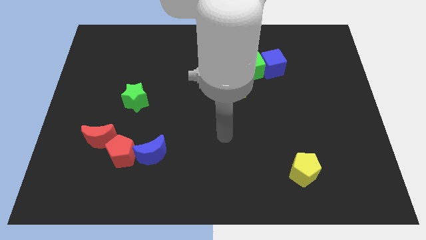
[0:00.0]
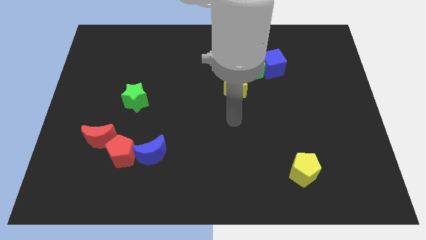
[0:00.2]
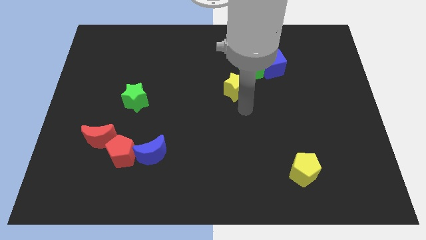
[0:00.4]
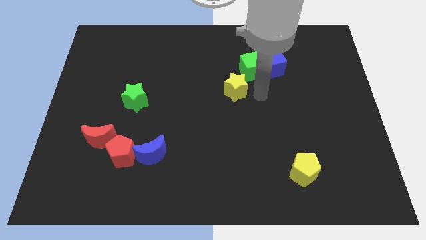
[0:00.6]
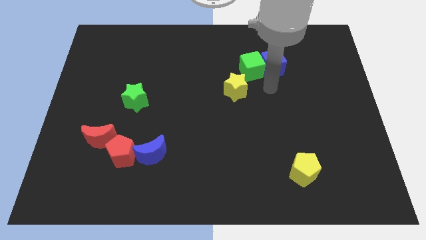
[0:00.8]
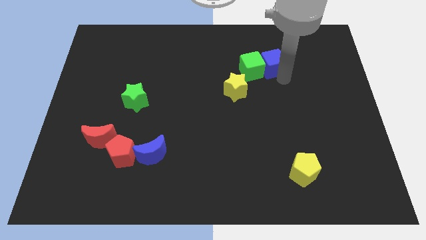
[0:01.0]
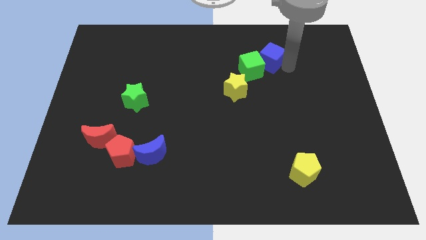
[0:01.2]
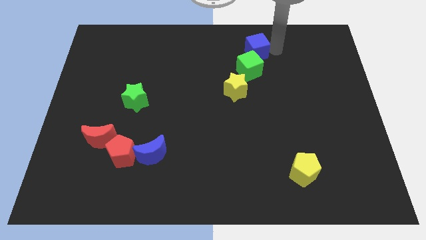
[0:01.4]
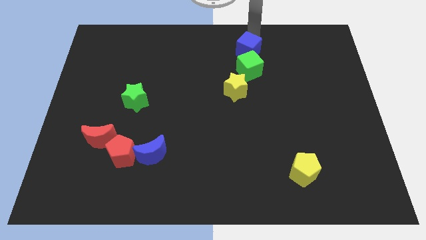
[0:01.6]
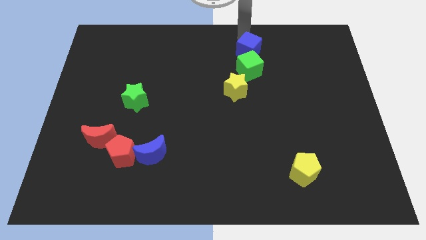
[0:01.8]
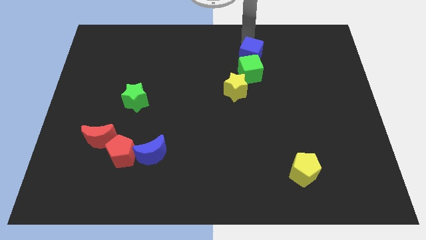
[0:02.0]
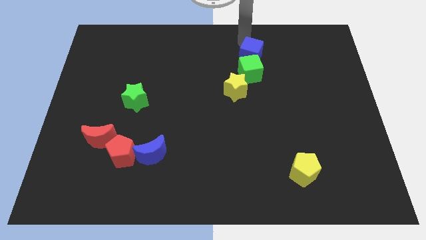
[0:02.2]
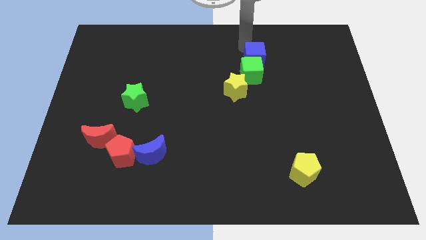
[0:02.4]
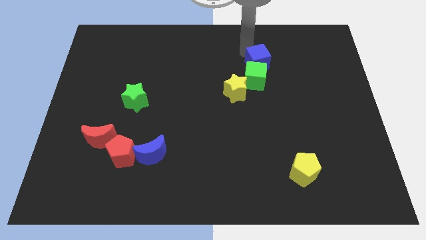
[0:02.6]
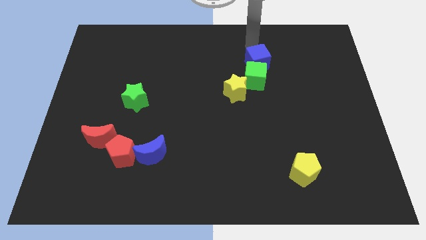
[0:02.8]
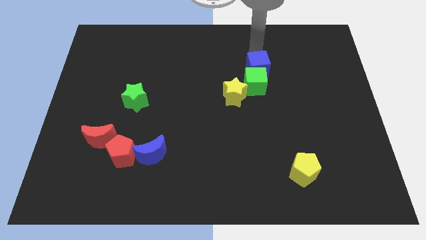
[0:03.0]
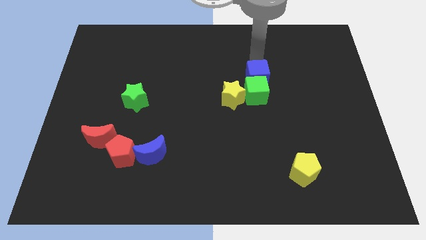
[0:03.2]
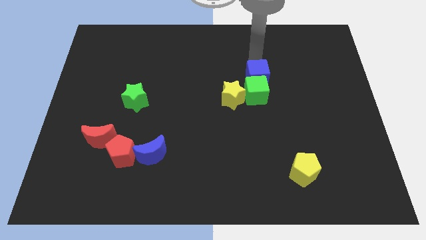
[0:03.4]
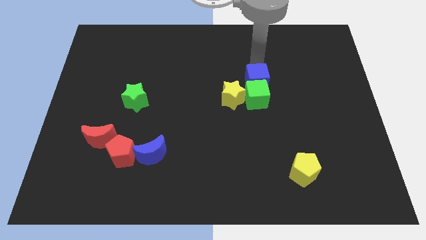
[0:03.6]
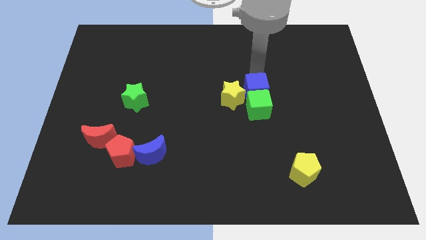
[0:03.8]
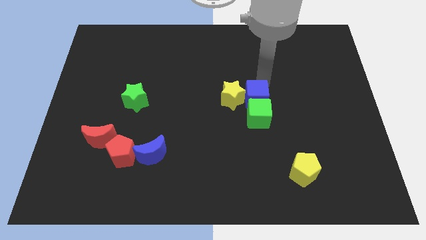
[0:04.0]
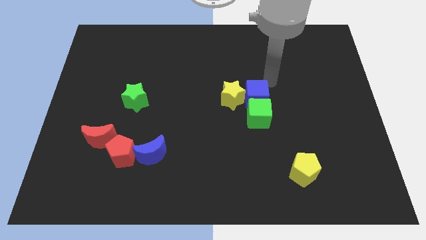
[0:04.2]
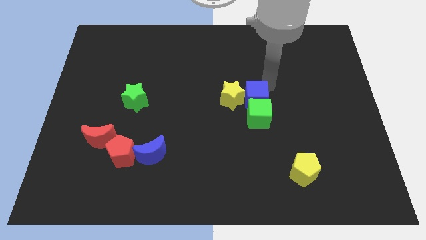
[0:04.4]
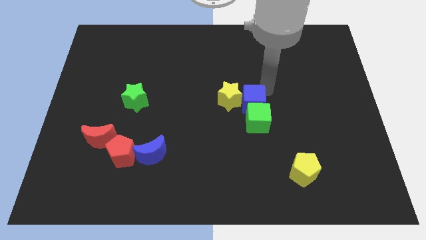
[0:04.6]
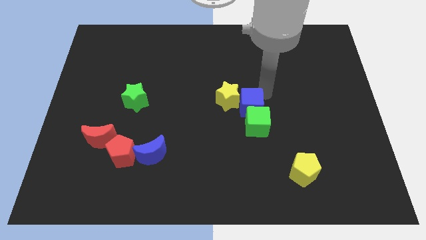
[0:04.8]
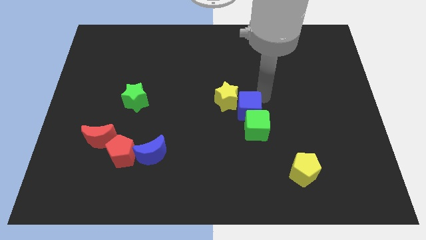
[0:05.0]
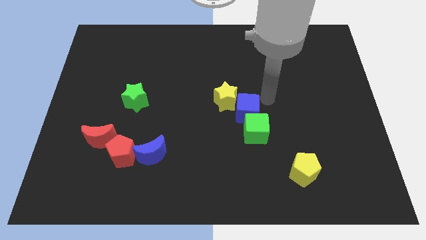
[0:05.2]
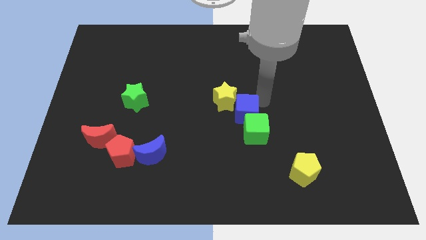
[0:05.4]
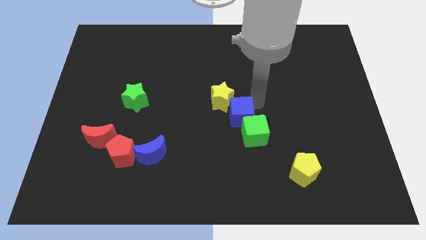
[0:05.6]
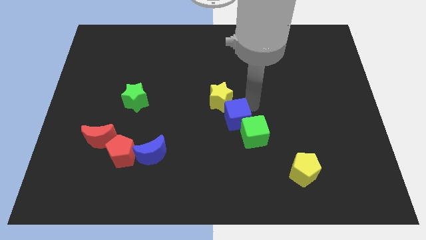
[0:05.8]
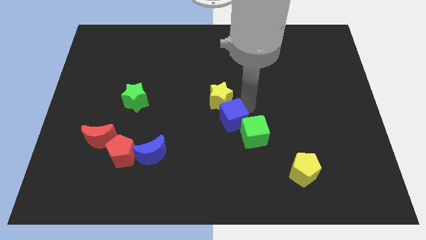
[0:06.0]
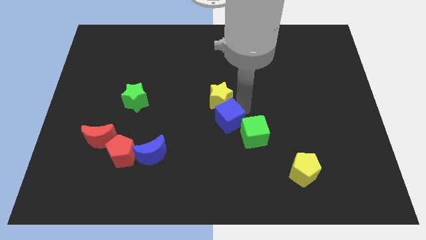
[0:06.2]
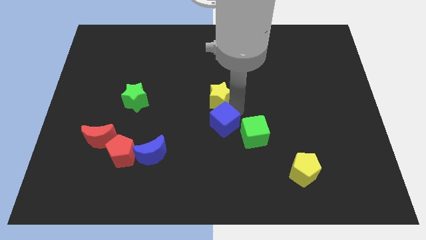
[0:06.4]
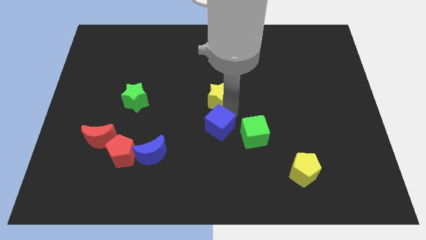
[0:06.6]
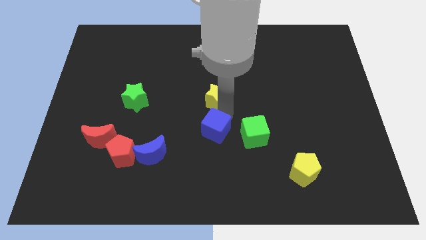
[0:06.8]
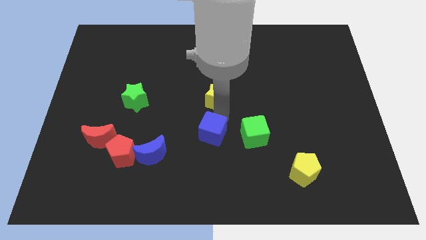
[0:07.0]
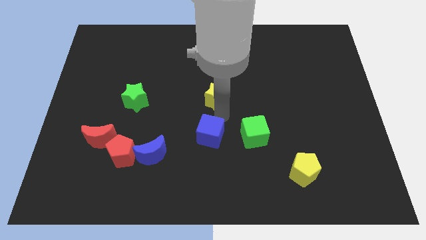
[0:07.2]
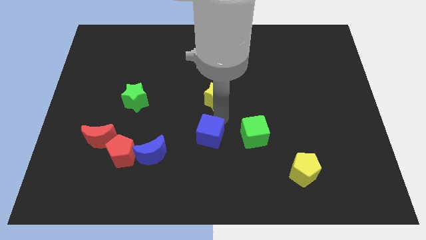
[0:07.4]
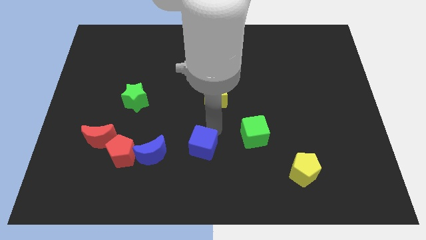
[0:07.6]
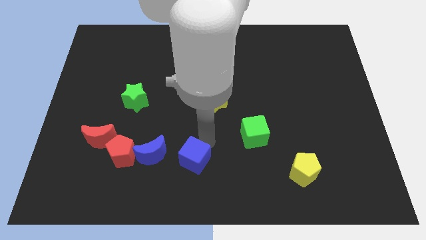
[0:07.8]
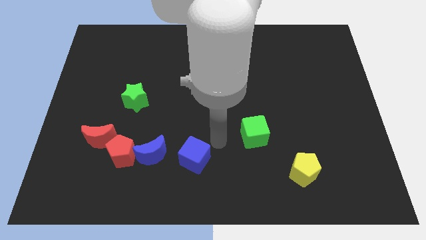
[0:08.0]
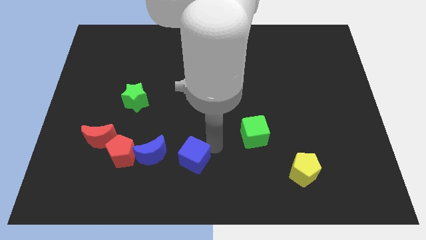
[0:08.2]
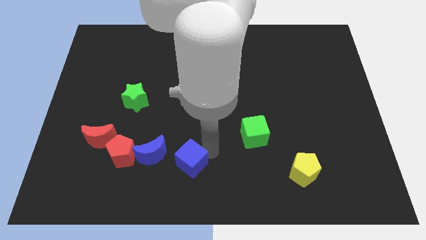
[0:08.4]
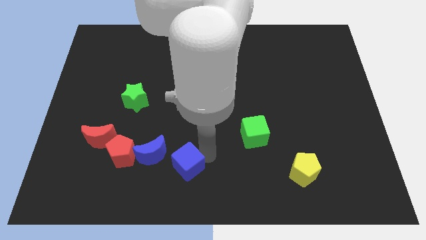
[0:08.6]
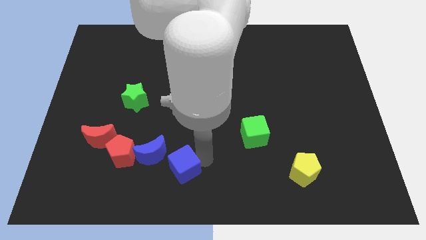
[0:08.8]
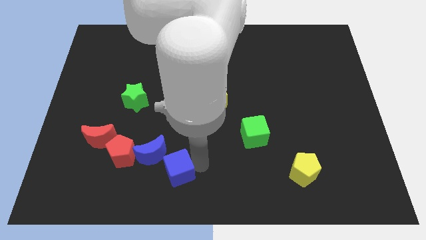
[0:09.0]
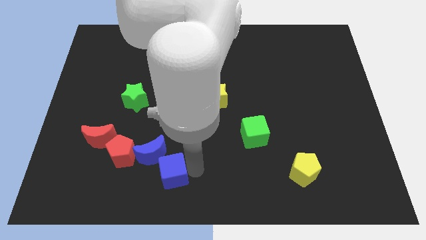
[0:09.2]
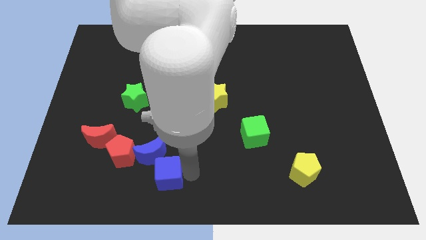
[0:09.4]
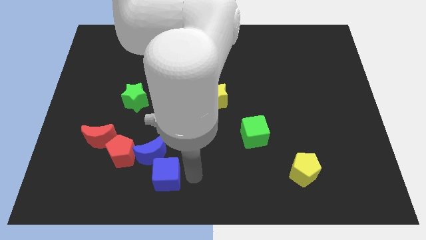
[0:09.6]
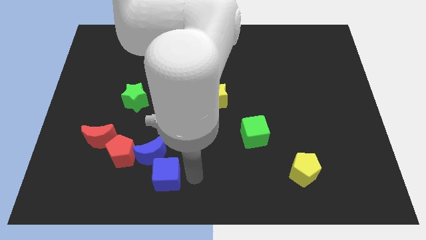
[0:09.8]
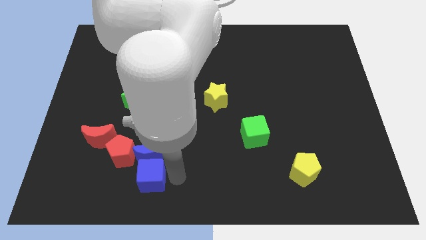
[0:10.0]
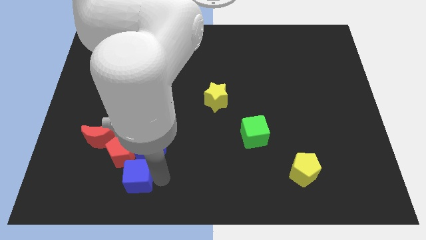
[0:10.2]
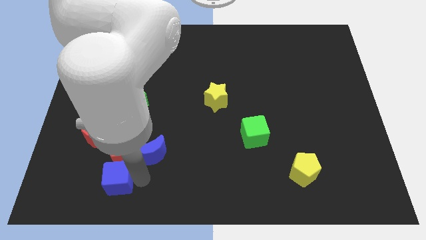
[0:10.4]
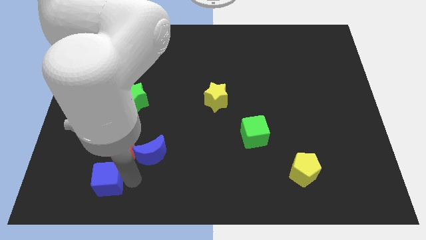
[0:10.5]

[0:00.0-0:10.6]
move the blue cube below the red moon

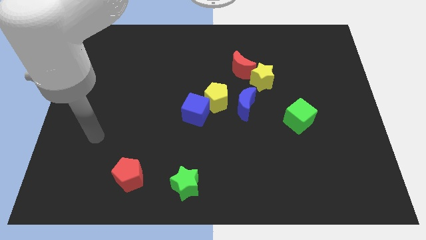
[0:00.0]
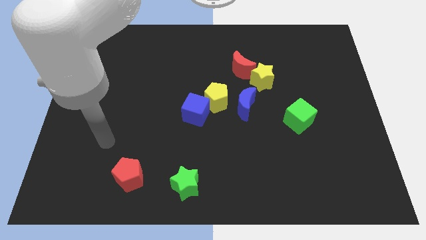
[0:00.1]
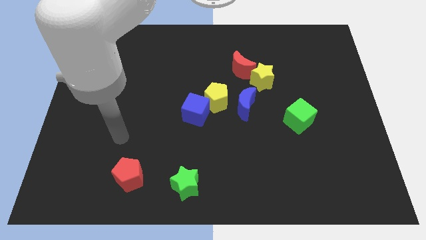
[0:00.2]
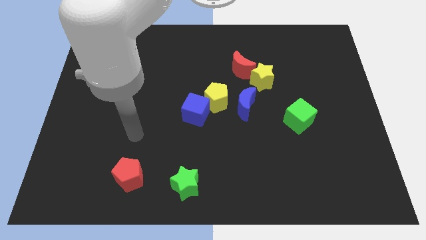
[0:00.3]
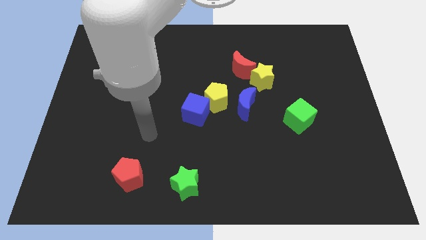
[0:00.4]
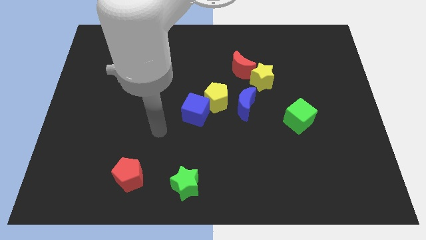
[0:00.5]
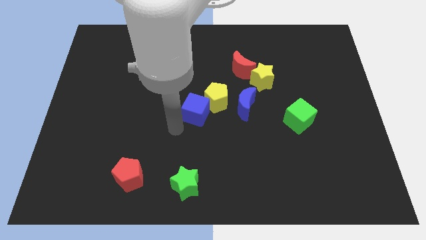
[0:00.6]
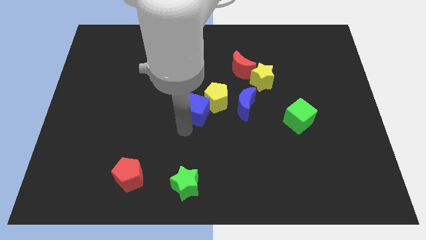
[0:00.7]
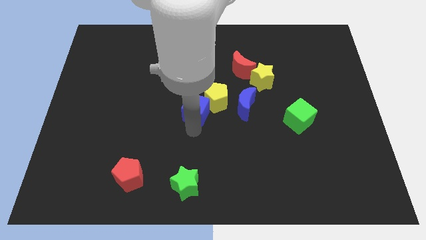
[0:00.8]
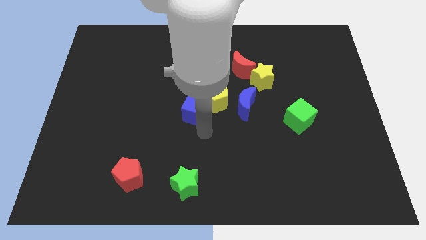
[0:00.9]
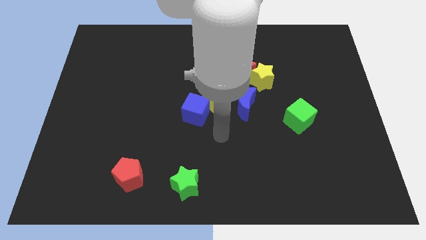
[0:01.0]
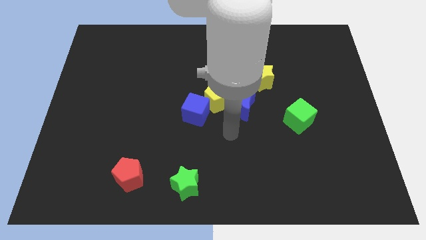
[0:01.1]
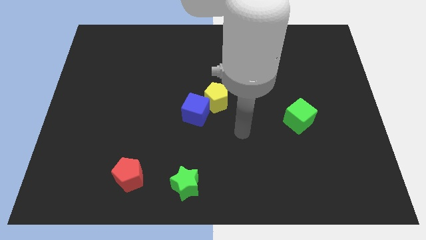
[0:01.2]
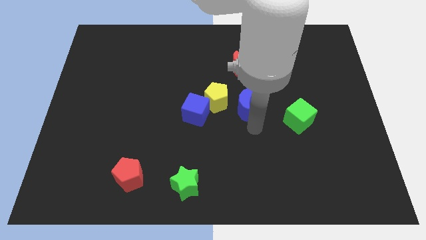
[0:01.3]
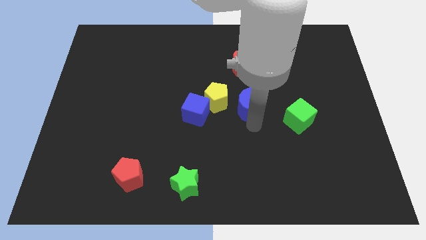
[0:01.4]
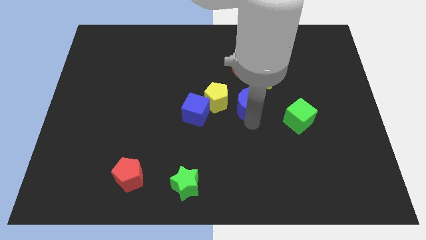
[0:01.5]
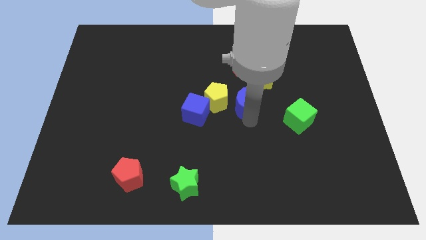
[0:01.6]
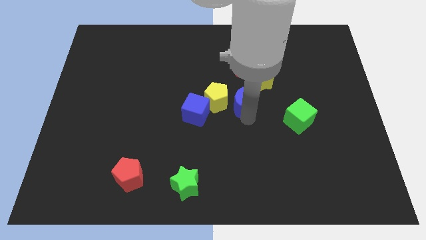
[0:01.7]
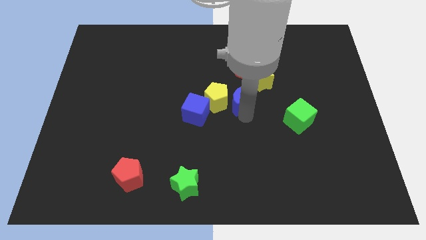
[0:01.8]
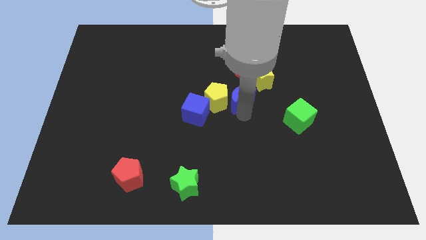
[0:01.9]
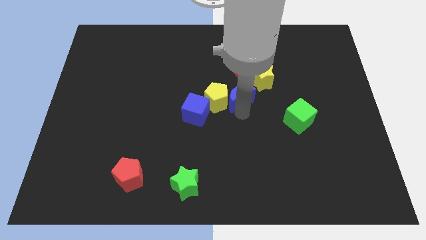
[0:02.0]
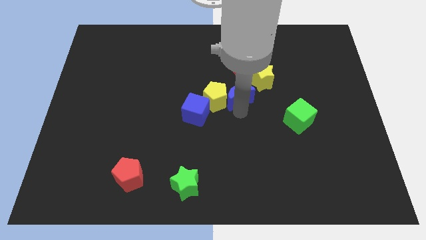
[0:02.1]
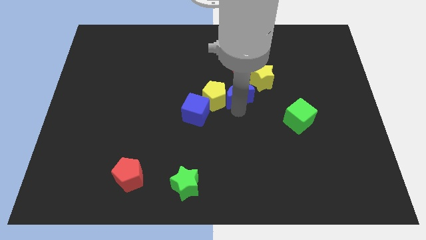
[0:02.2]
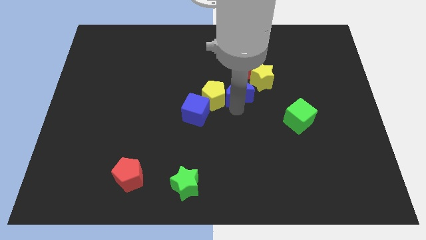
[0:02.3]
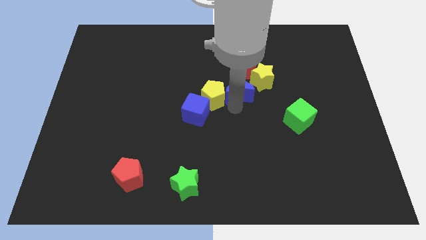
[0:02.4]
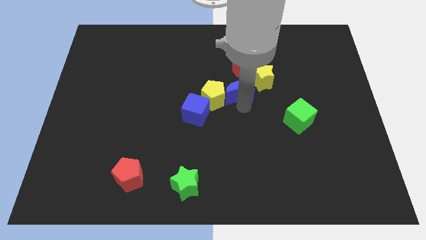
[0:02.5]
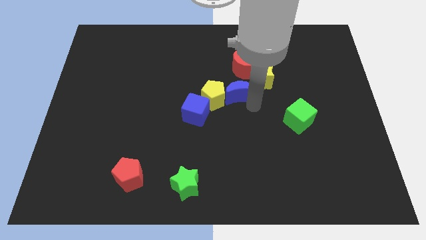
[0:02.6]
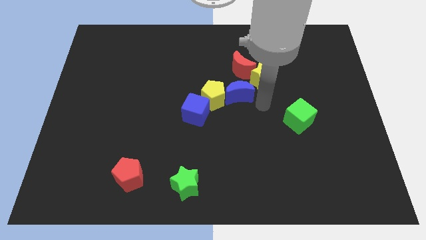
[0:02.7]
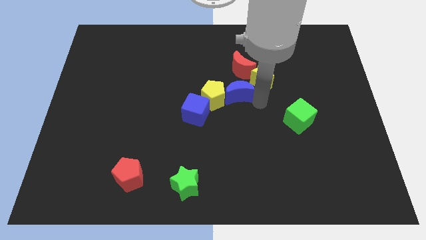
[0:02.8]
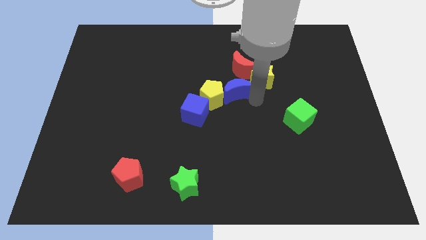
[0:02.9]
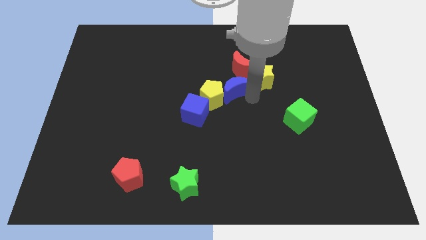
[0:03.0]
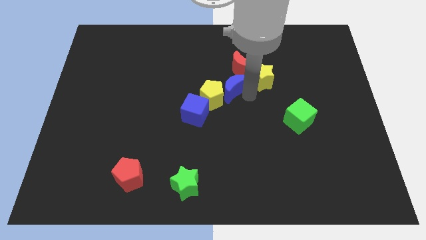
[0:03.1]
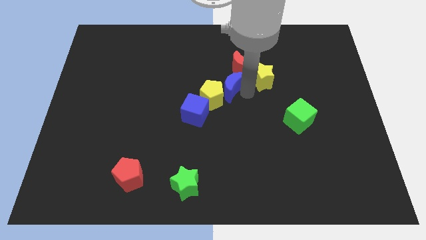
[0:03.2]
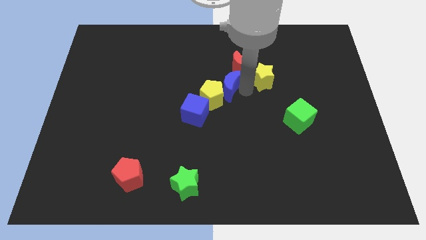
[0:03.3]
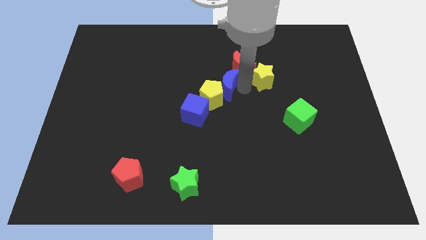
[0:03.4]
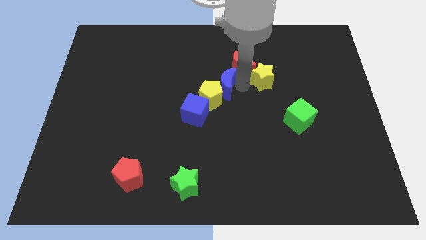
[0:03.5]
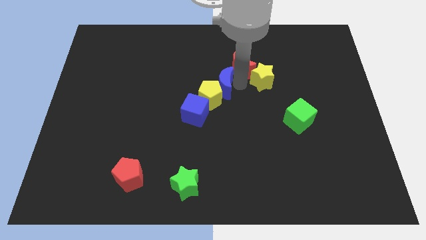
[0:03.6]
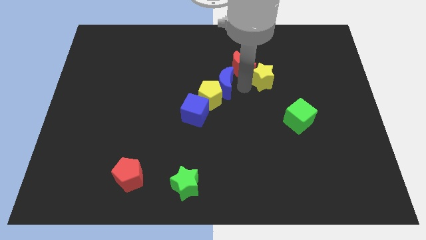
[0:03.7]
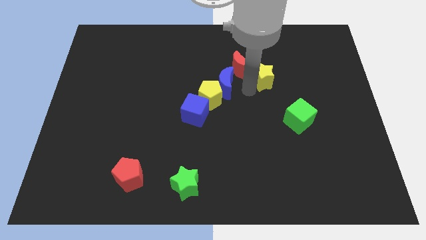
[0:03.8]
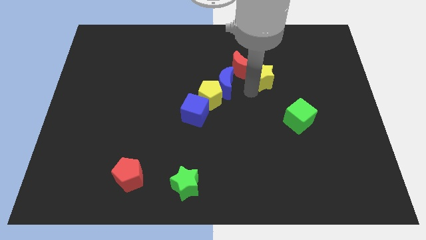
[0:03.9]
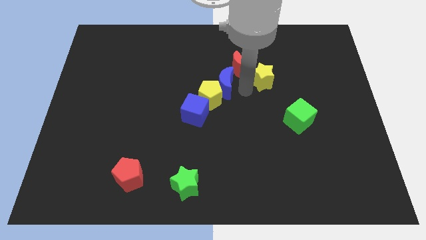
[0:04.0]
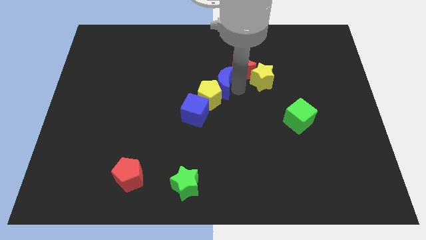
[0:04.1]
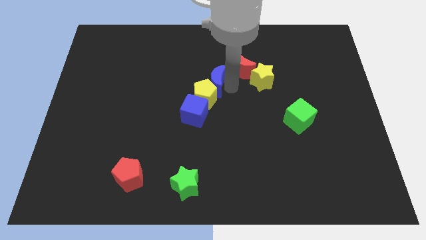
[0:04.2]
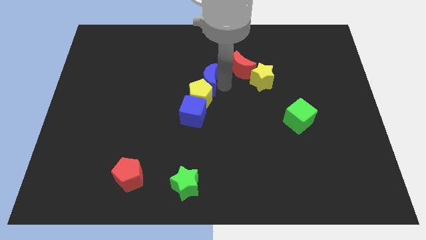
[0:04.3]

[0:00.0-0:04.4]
push the blue moon to the top side of the blue cube
